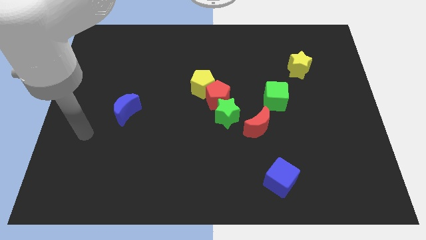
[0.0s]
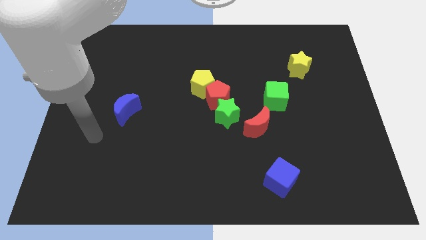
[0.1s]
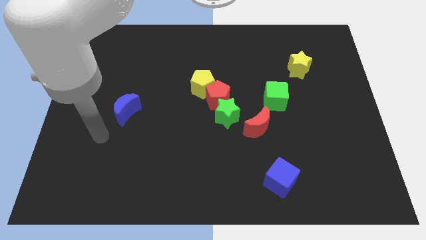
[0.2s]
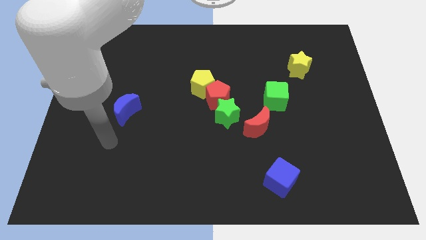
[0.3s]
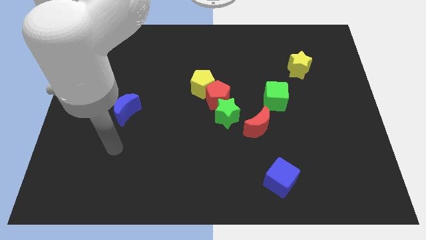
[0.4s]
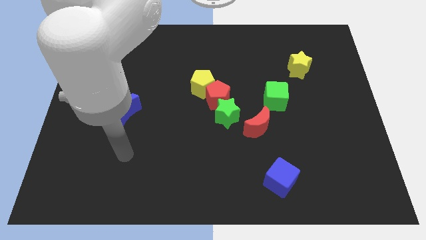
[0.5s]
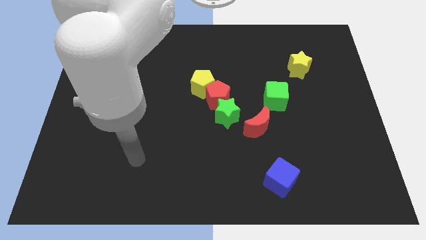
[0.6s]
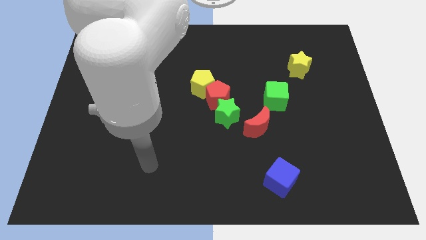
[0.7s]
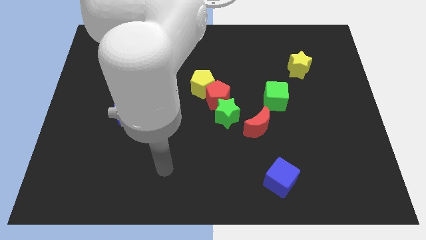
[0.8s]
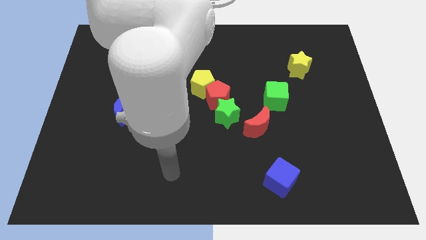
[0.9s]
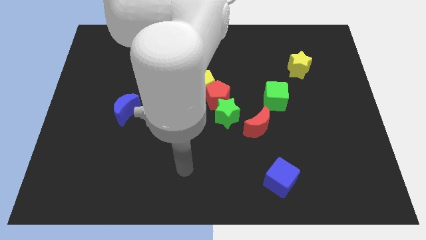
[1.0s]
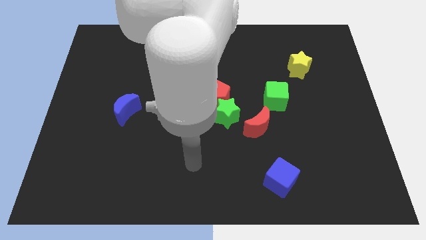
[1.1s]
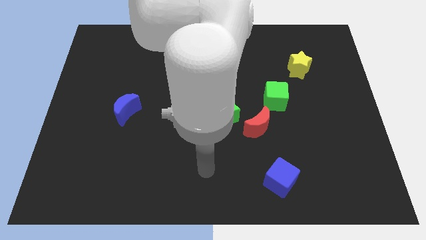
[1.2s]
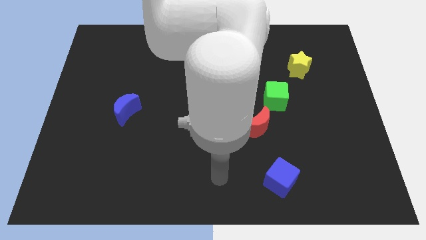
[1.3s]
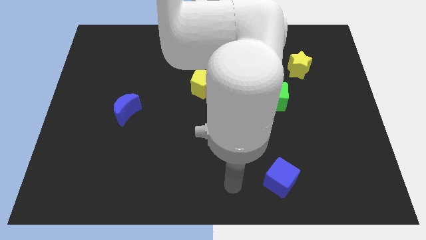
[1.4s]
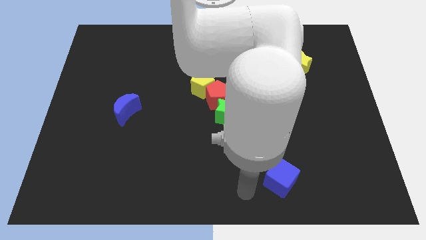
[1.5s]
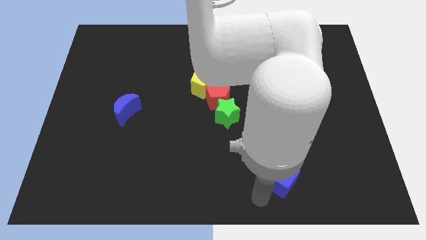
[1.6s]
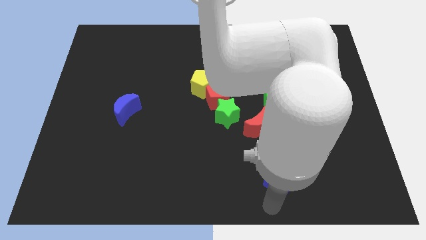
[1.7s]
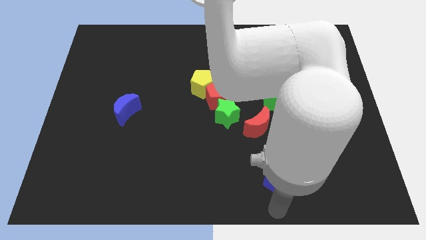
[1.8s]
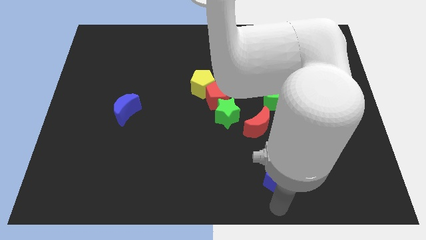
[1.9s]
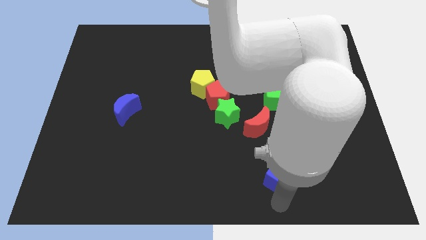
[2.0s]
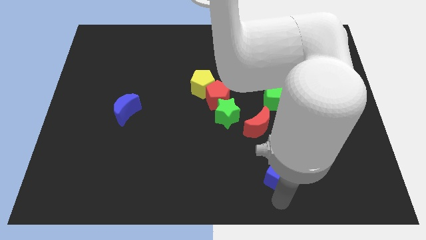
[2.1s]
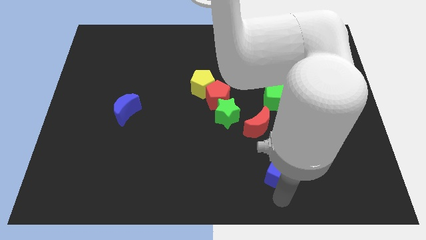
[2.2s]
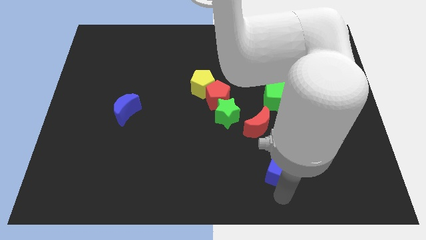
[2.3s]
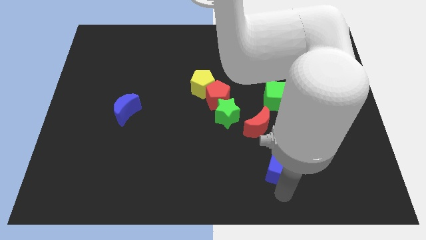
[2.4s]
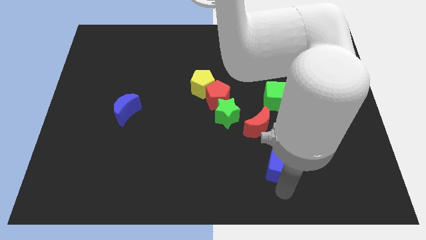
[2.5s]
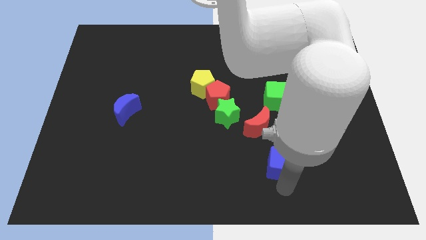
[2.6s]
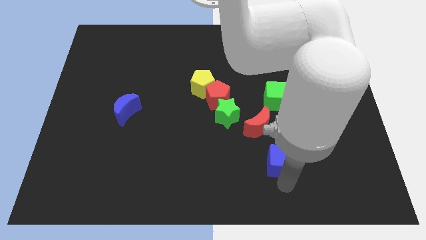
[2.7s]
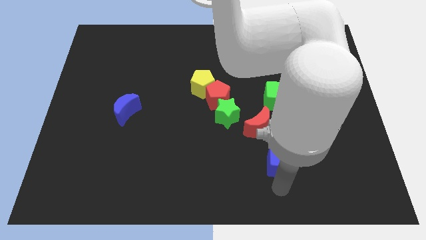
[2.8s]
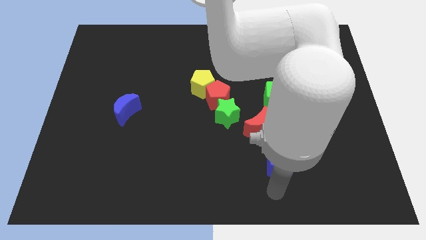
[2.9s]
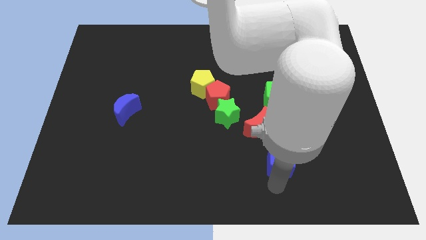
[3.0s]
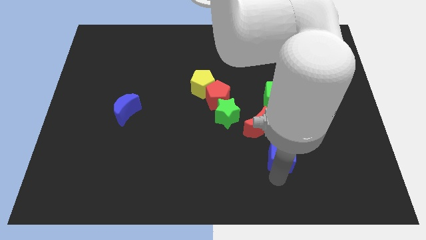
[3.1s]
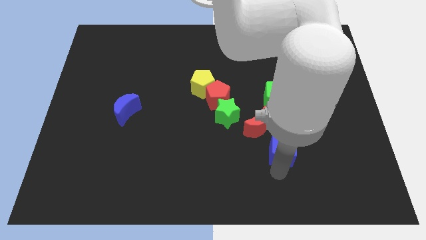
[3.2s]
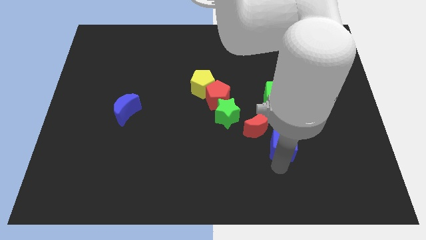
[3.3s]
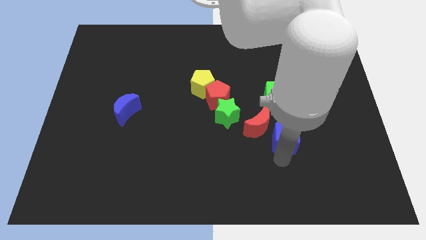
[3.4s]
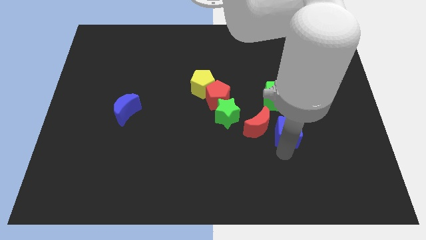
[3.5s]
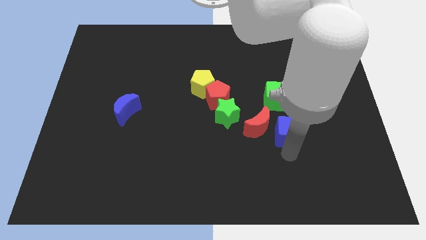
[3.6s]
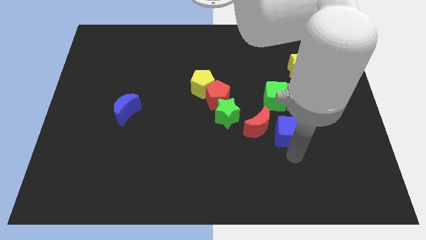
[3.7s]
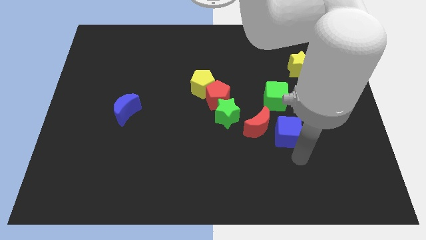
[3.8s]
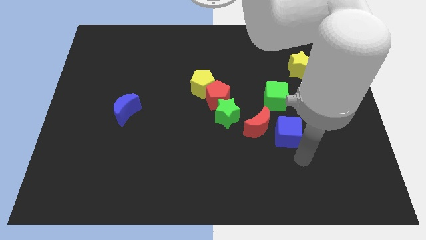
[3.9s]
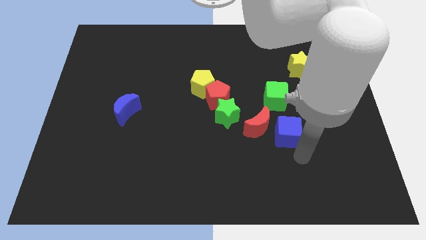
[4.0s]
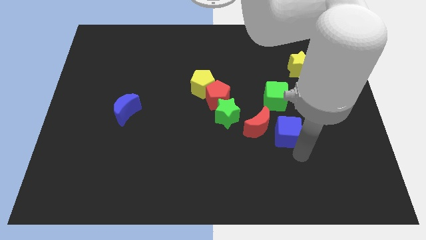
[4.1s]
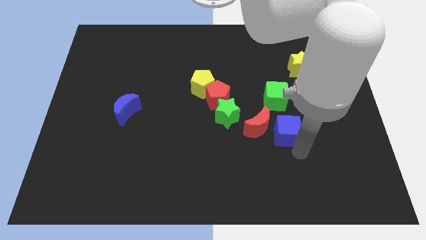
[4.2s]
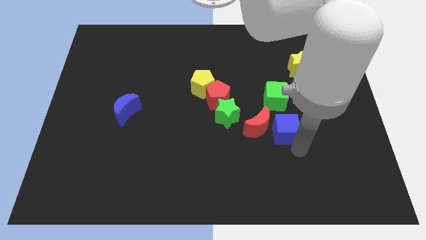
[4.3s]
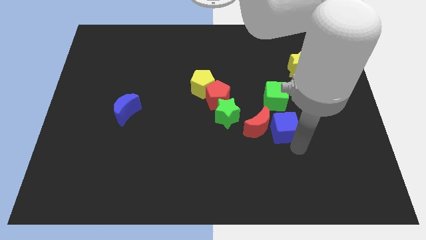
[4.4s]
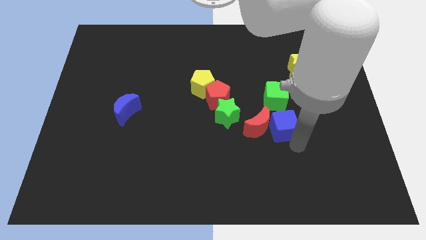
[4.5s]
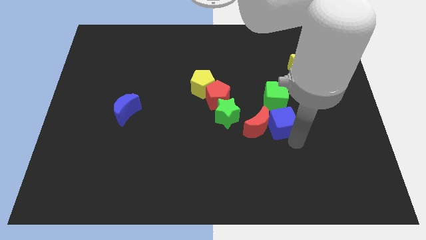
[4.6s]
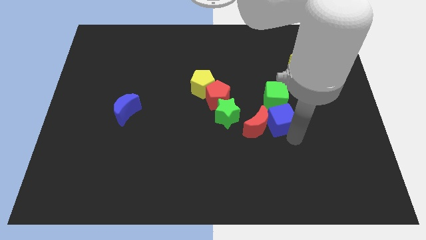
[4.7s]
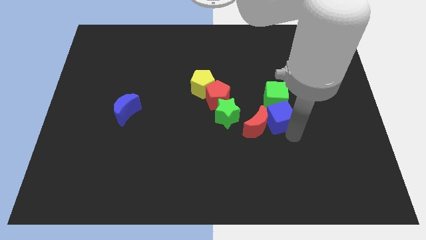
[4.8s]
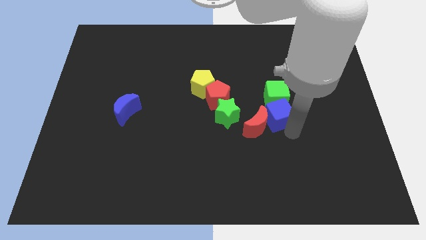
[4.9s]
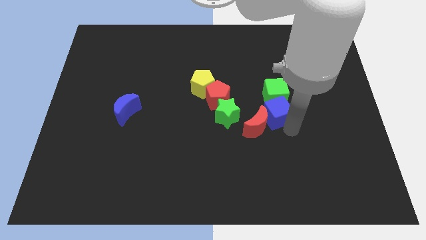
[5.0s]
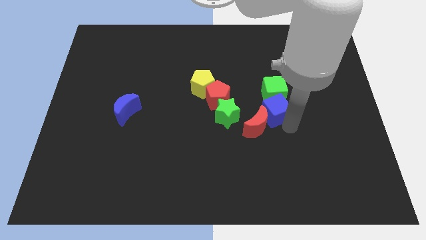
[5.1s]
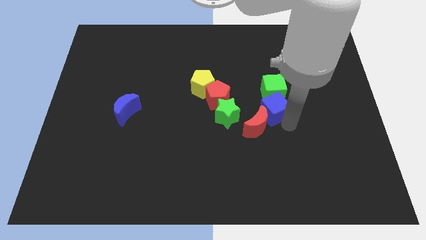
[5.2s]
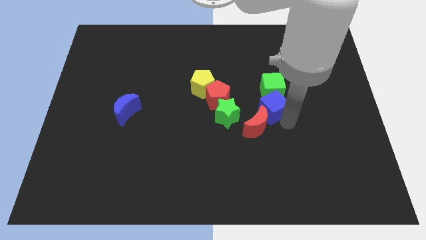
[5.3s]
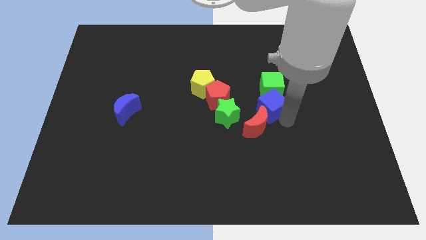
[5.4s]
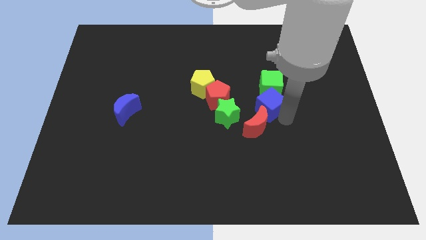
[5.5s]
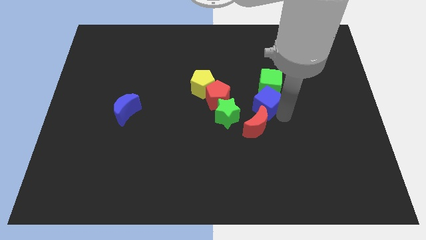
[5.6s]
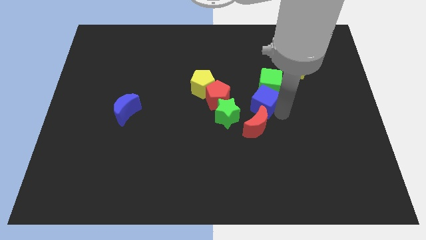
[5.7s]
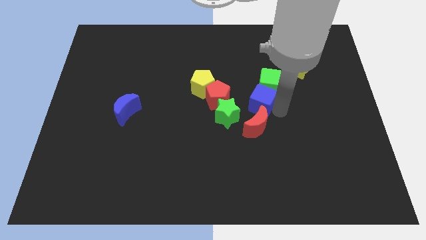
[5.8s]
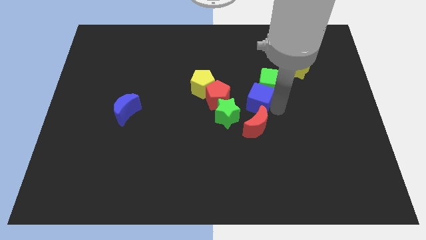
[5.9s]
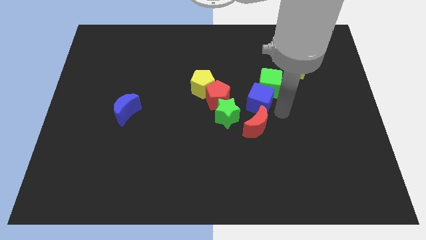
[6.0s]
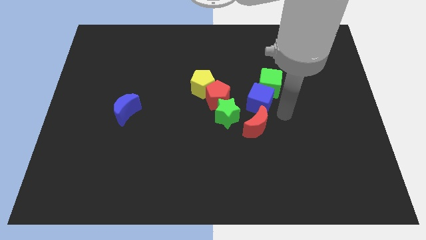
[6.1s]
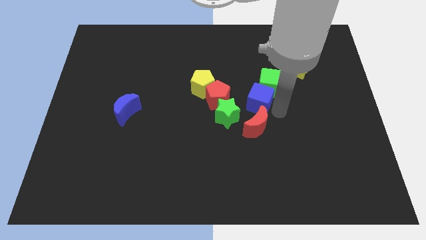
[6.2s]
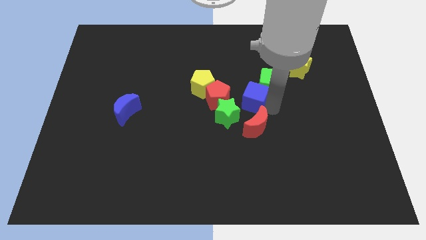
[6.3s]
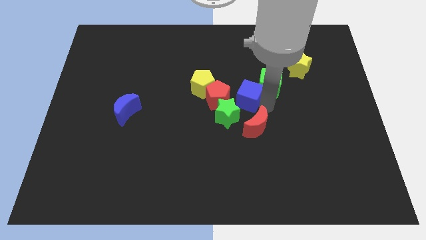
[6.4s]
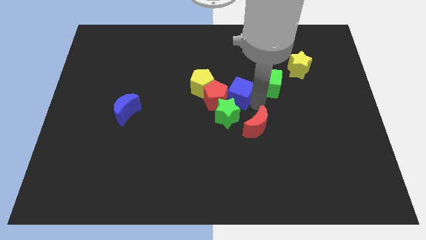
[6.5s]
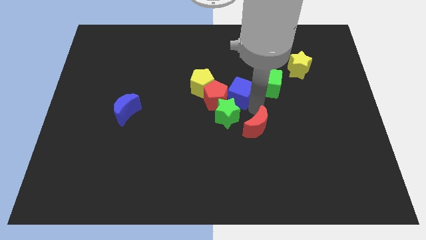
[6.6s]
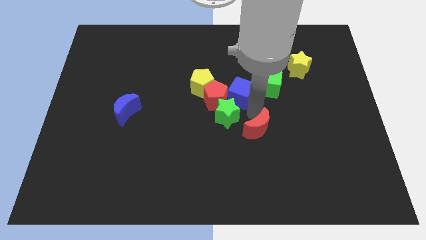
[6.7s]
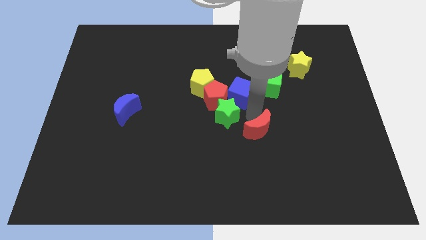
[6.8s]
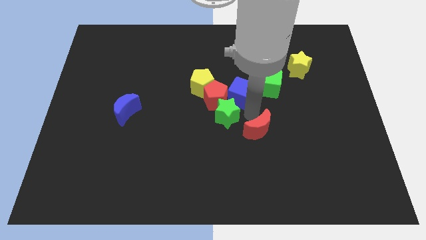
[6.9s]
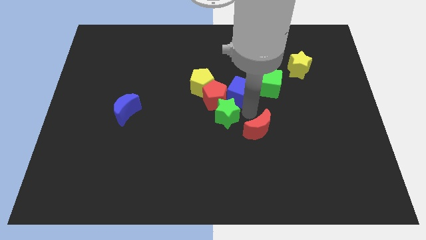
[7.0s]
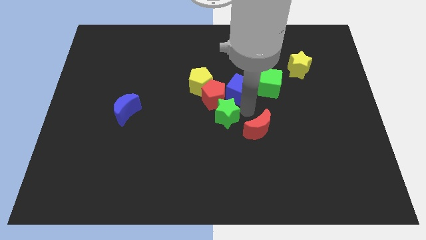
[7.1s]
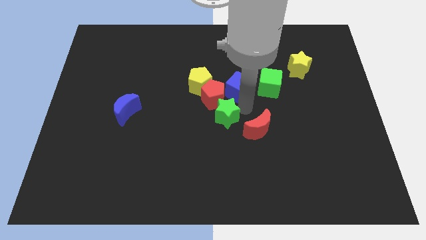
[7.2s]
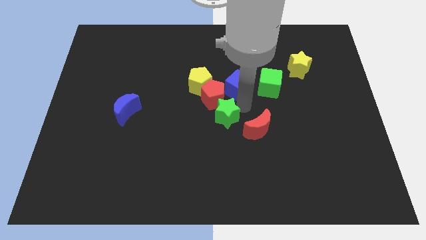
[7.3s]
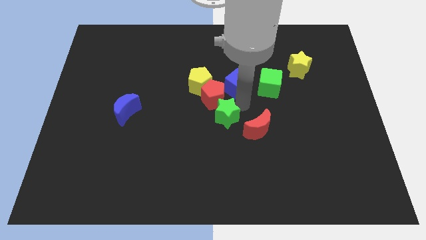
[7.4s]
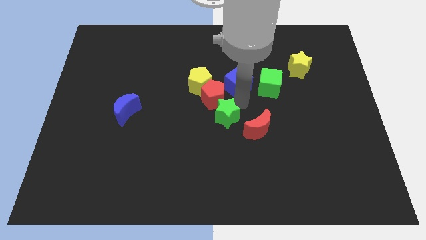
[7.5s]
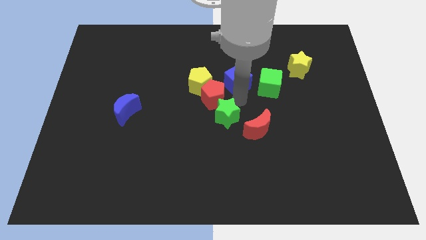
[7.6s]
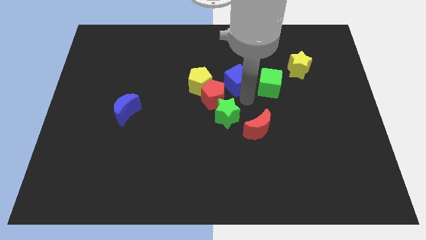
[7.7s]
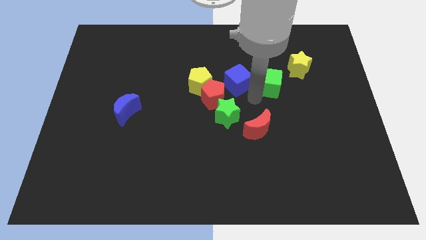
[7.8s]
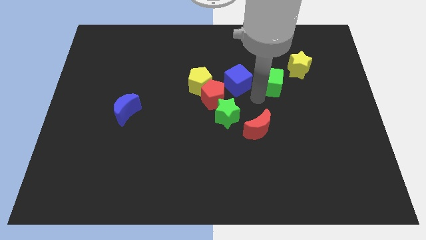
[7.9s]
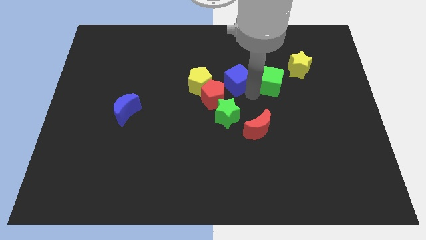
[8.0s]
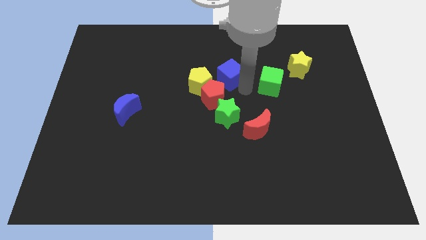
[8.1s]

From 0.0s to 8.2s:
move the blue cube to the top of the red pentagon
